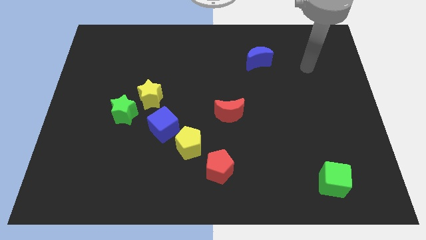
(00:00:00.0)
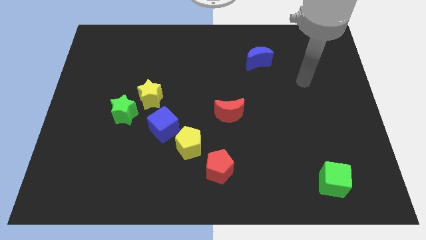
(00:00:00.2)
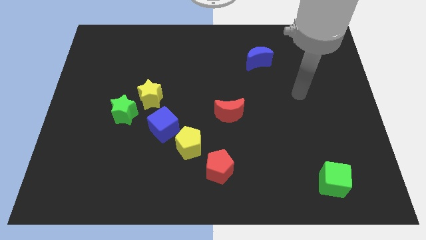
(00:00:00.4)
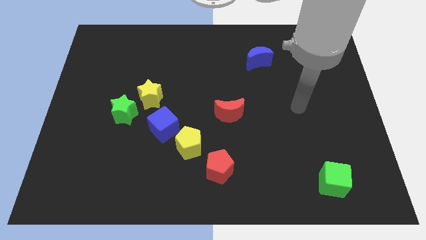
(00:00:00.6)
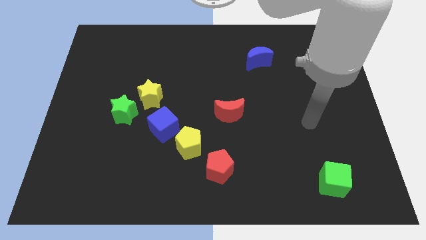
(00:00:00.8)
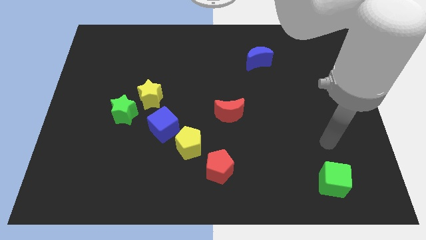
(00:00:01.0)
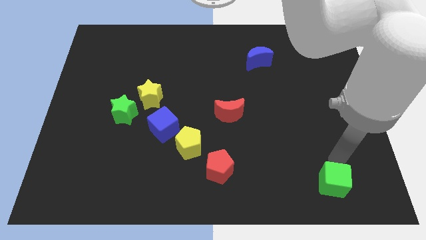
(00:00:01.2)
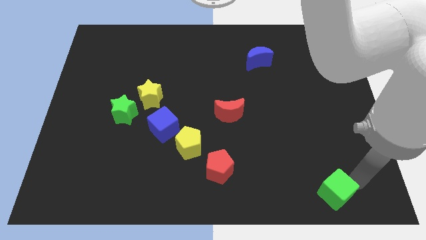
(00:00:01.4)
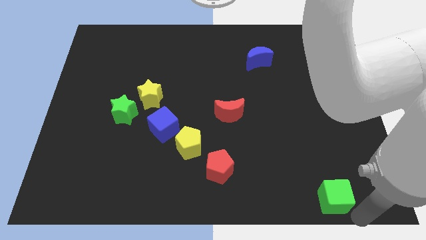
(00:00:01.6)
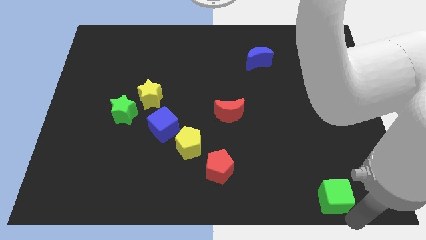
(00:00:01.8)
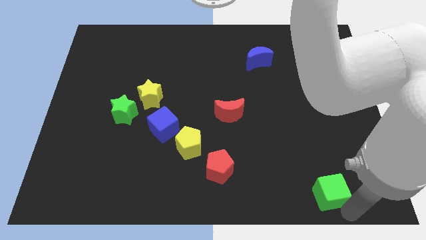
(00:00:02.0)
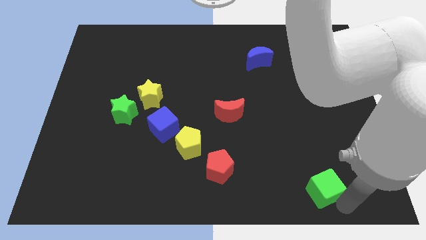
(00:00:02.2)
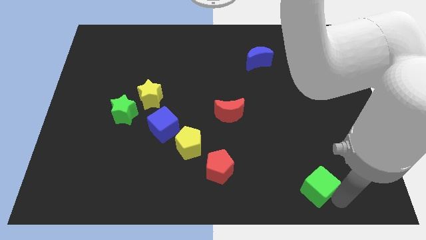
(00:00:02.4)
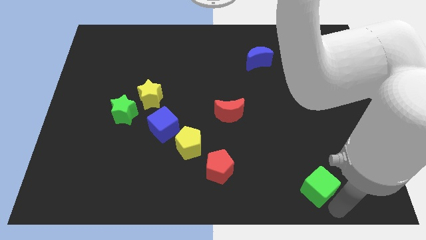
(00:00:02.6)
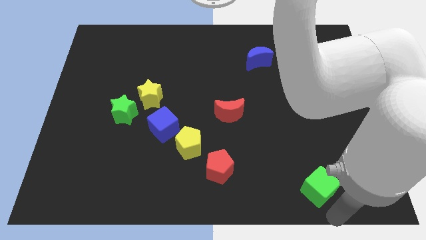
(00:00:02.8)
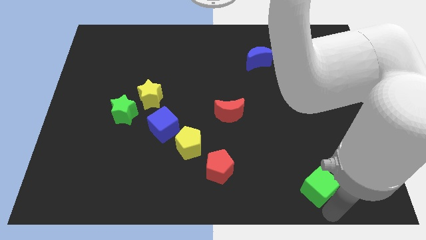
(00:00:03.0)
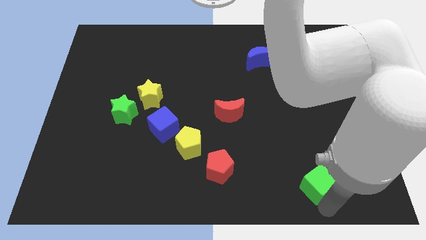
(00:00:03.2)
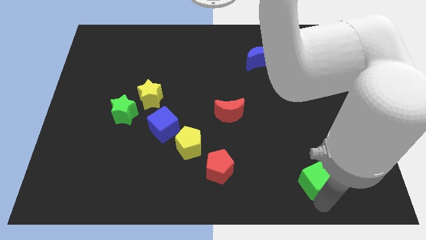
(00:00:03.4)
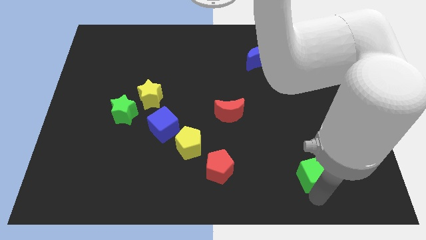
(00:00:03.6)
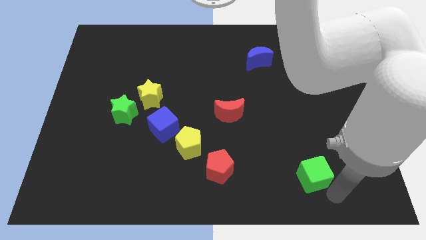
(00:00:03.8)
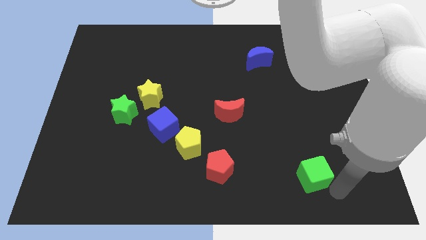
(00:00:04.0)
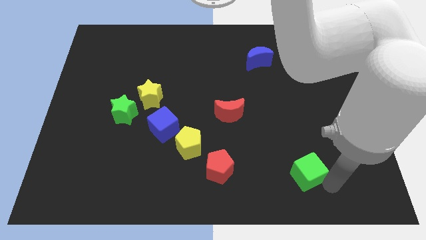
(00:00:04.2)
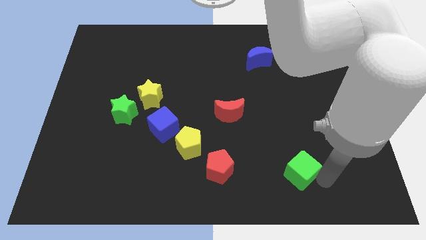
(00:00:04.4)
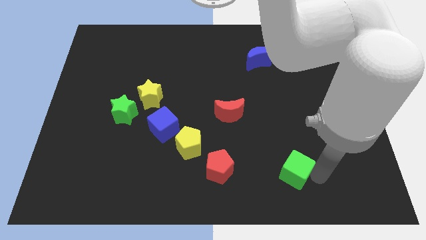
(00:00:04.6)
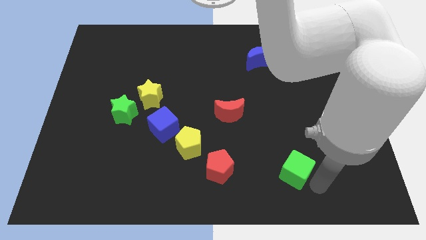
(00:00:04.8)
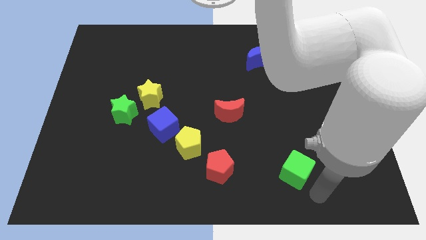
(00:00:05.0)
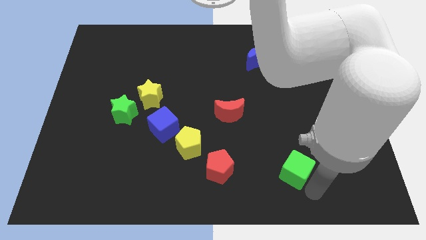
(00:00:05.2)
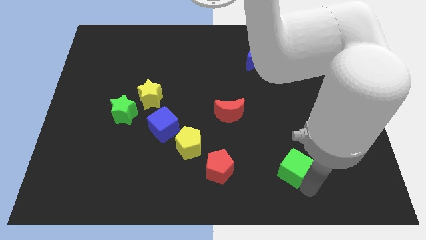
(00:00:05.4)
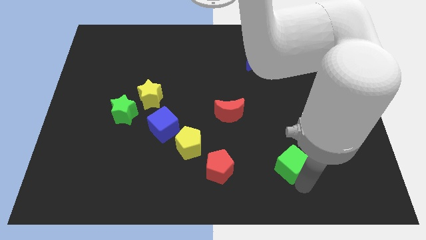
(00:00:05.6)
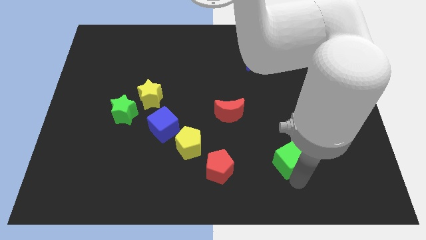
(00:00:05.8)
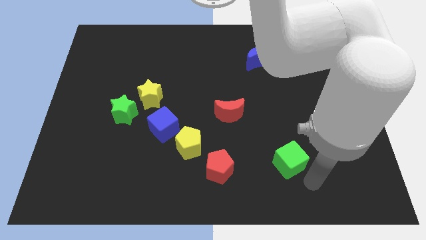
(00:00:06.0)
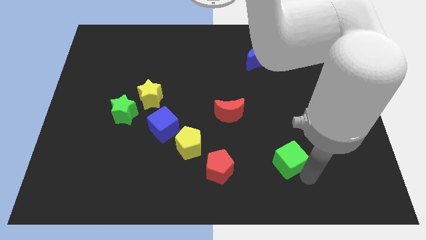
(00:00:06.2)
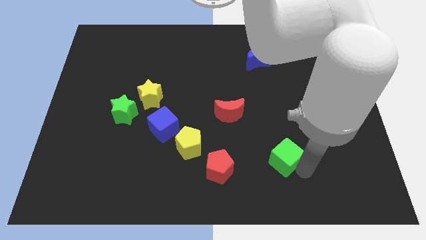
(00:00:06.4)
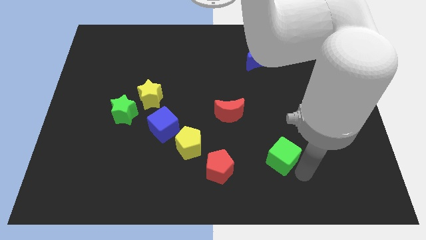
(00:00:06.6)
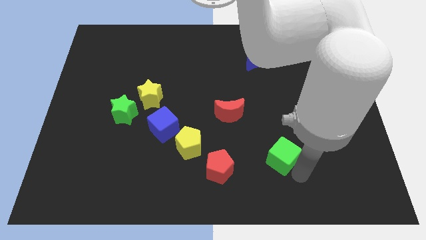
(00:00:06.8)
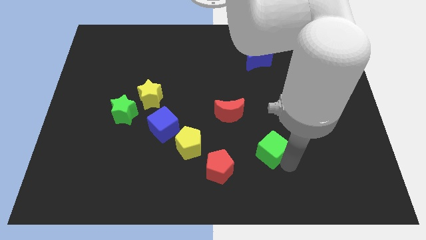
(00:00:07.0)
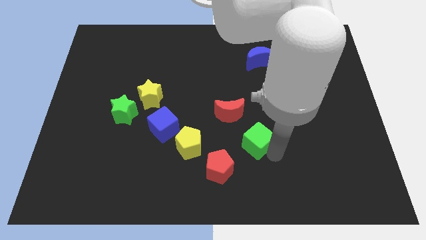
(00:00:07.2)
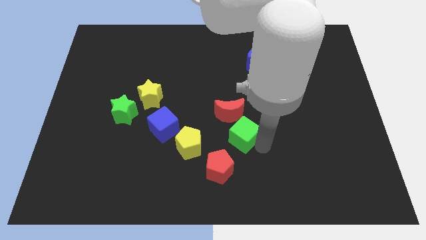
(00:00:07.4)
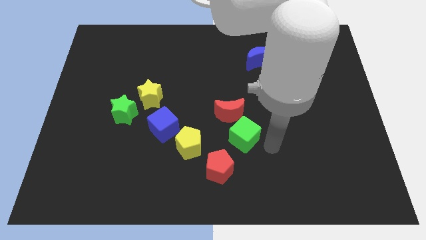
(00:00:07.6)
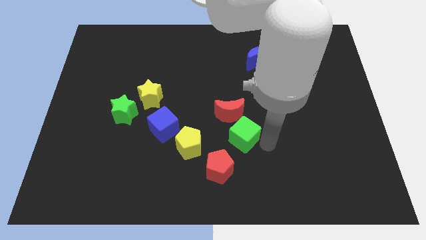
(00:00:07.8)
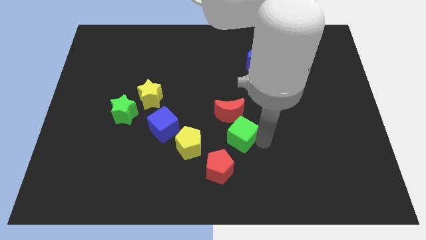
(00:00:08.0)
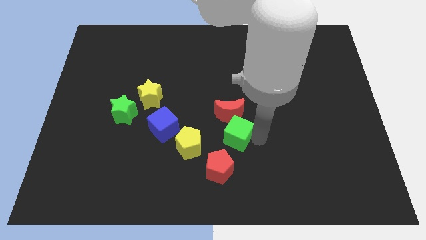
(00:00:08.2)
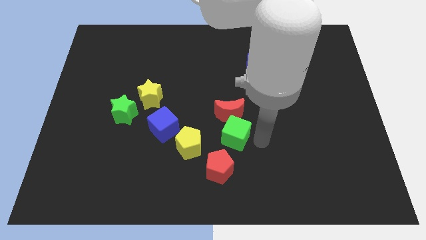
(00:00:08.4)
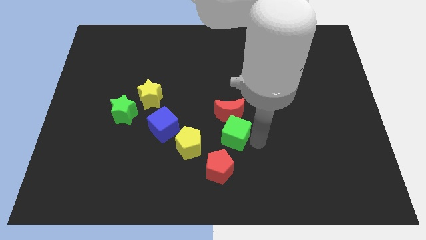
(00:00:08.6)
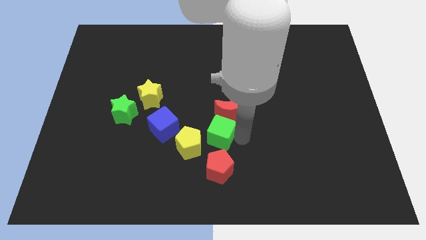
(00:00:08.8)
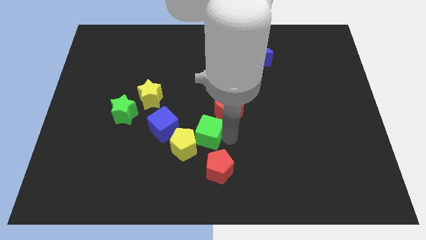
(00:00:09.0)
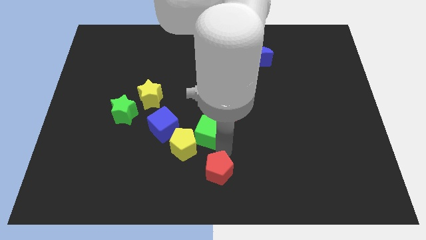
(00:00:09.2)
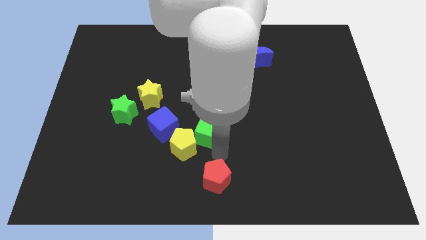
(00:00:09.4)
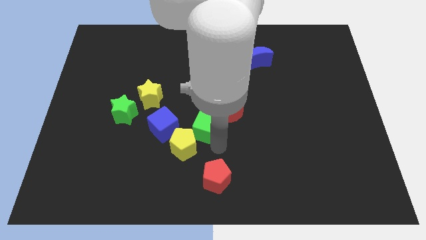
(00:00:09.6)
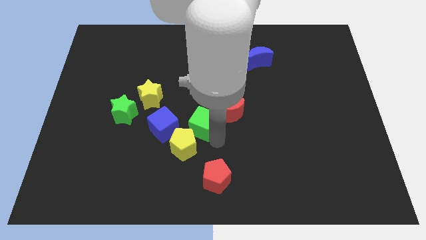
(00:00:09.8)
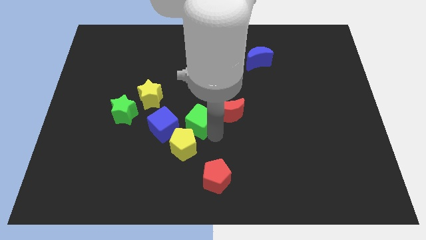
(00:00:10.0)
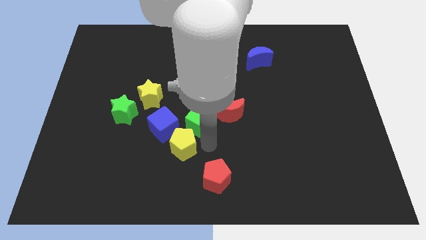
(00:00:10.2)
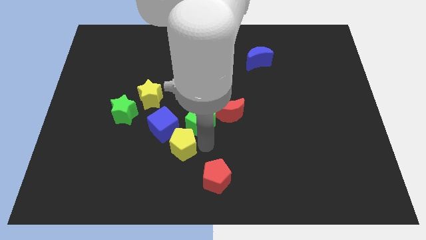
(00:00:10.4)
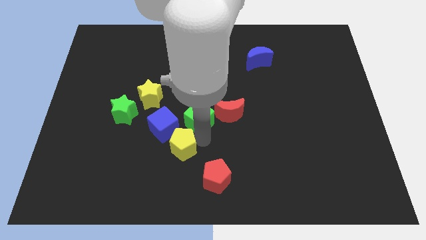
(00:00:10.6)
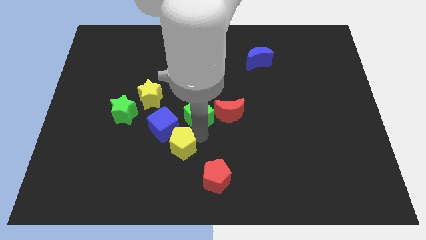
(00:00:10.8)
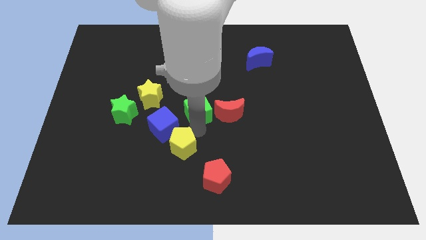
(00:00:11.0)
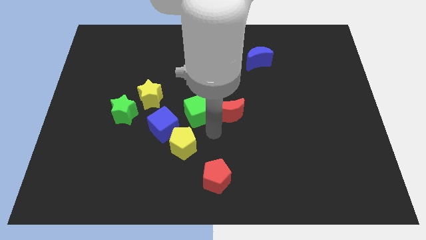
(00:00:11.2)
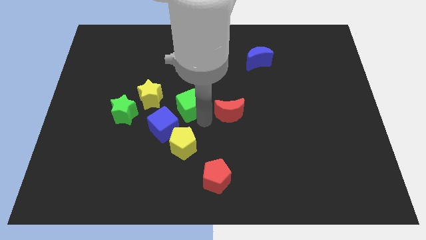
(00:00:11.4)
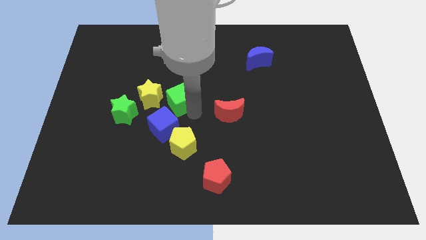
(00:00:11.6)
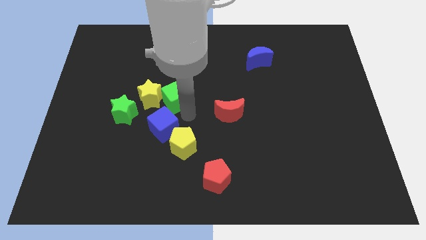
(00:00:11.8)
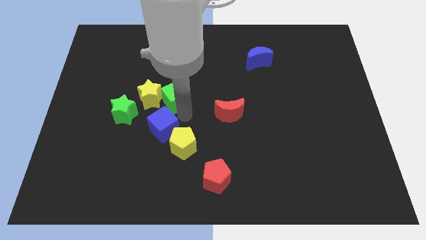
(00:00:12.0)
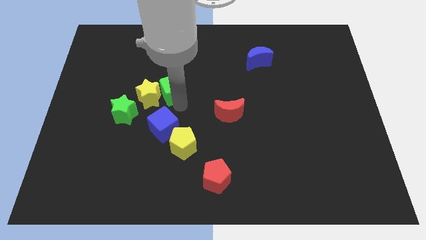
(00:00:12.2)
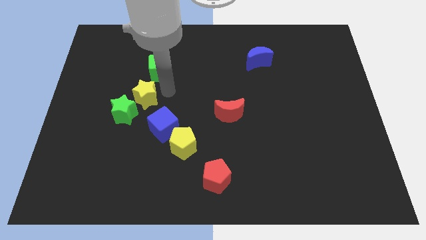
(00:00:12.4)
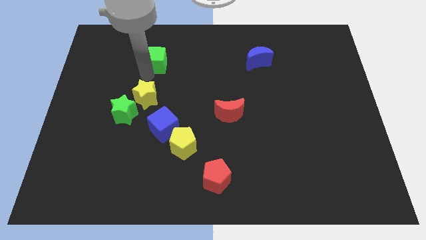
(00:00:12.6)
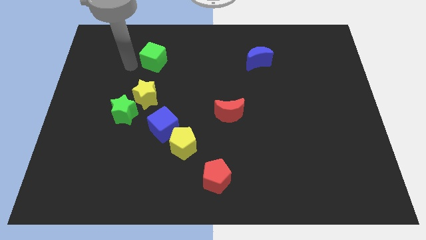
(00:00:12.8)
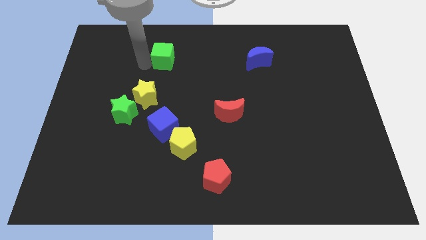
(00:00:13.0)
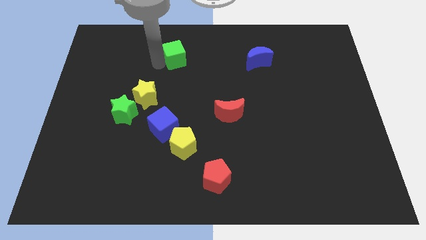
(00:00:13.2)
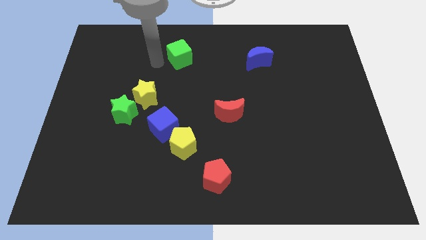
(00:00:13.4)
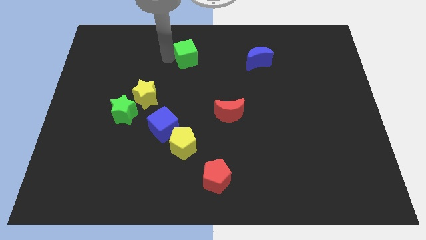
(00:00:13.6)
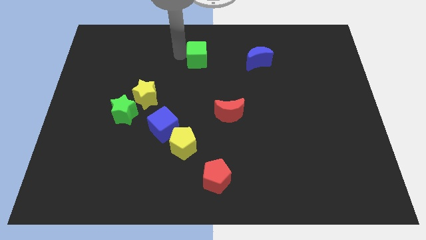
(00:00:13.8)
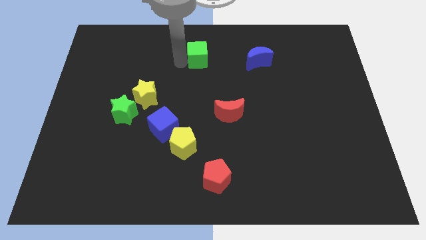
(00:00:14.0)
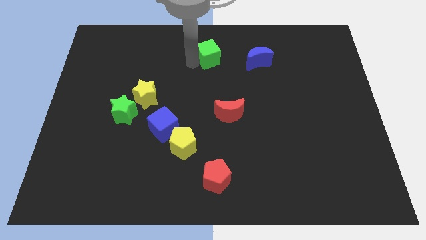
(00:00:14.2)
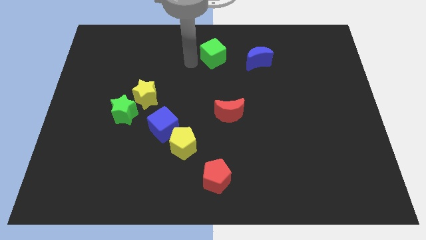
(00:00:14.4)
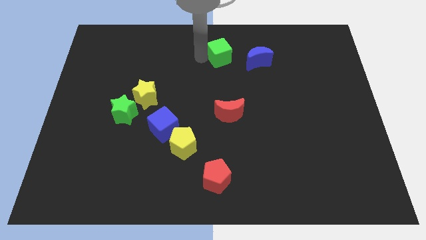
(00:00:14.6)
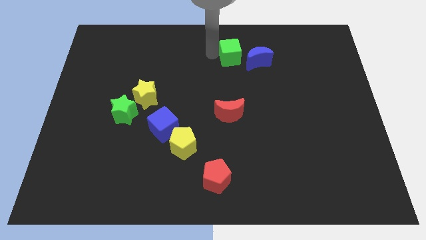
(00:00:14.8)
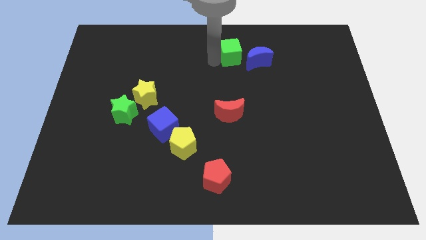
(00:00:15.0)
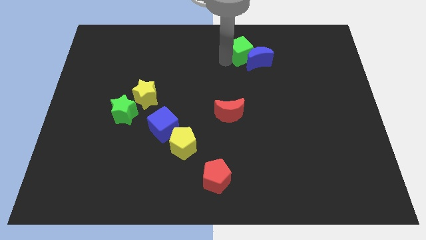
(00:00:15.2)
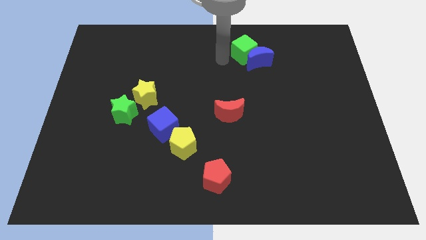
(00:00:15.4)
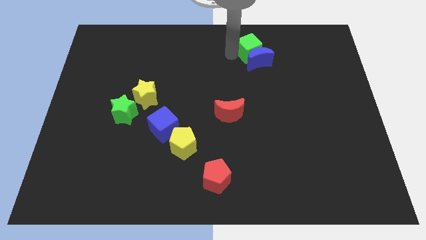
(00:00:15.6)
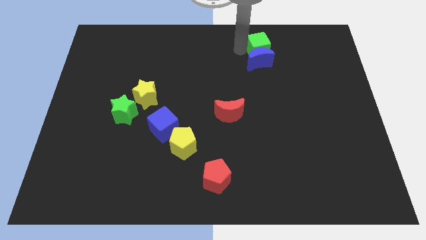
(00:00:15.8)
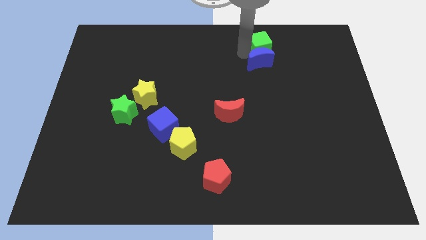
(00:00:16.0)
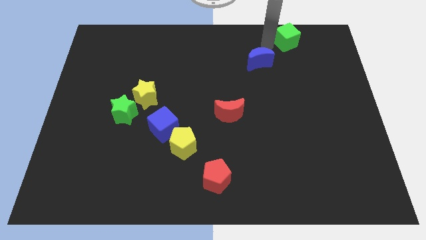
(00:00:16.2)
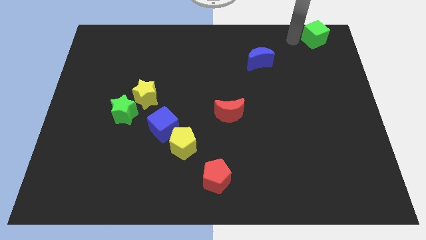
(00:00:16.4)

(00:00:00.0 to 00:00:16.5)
move the green cube to the top right corner
